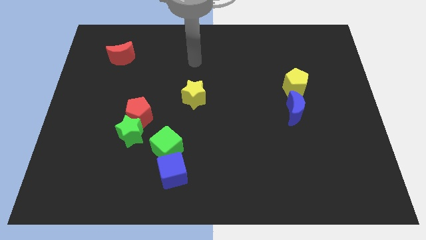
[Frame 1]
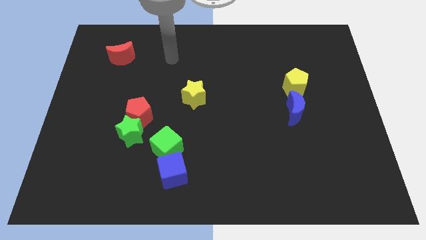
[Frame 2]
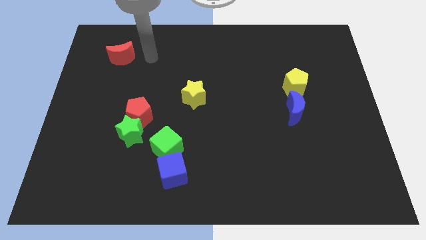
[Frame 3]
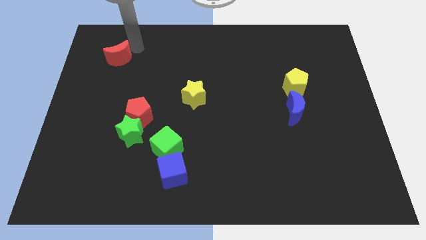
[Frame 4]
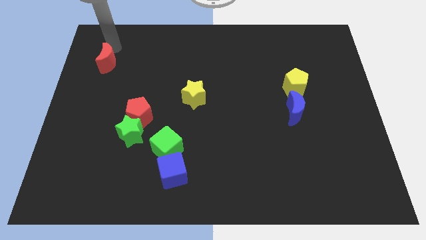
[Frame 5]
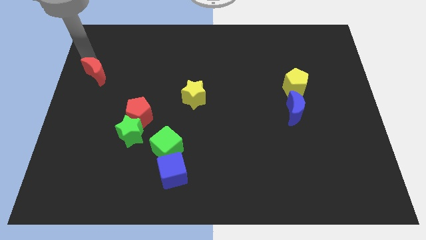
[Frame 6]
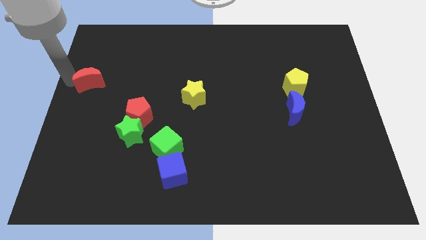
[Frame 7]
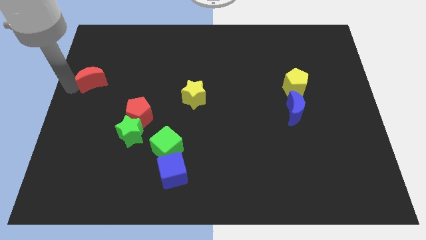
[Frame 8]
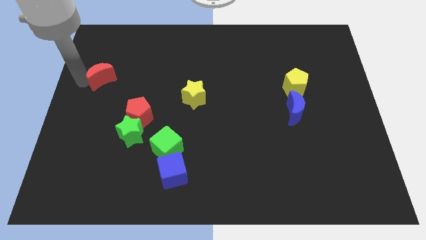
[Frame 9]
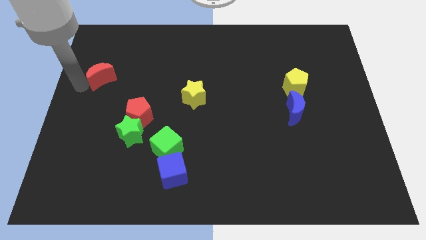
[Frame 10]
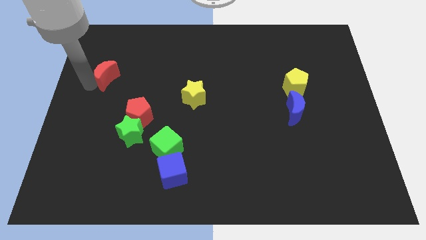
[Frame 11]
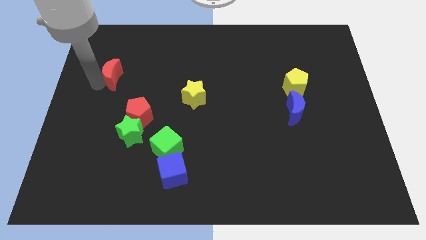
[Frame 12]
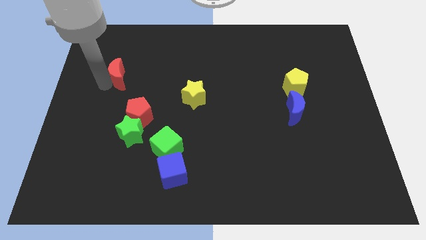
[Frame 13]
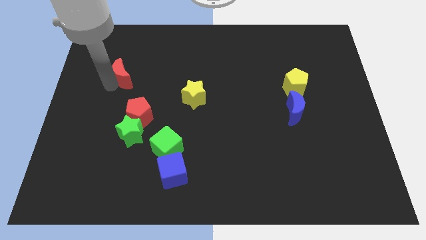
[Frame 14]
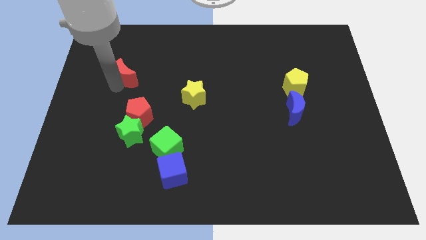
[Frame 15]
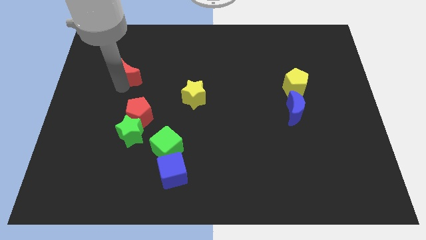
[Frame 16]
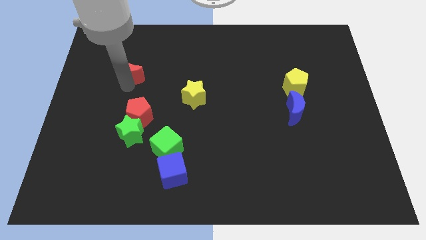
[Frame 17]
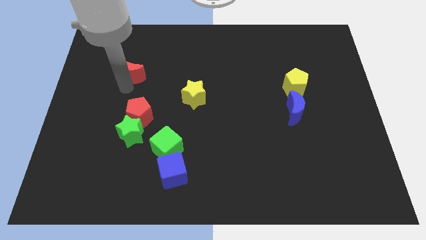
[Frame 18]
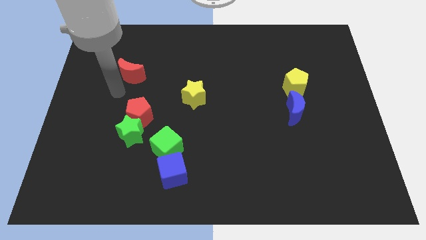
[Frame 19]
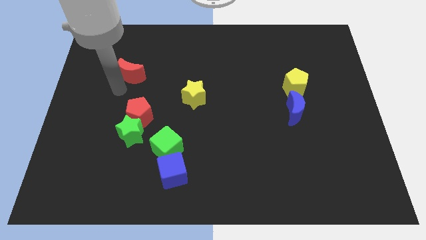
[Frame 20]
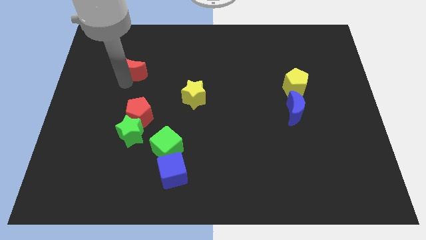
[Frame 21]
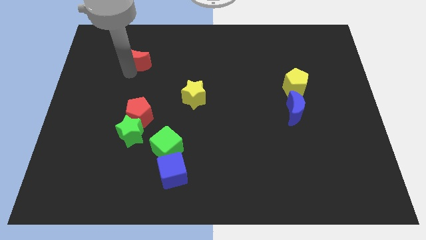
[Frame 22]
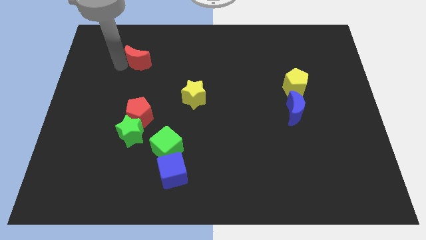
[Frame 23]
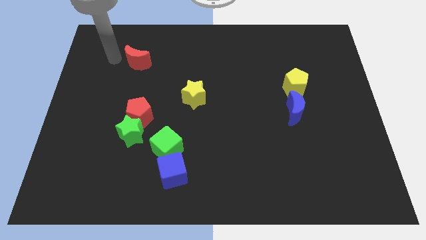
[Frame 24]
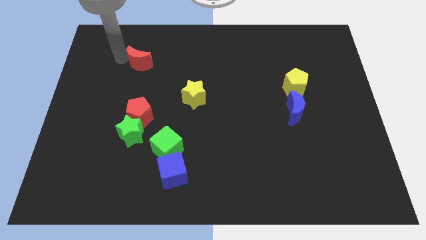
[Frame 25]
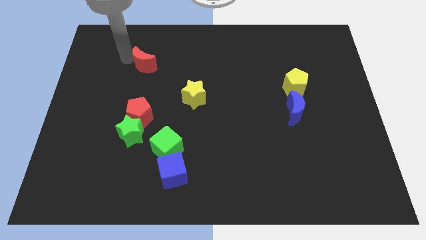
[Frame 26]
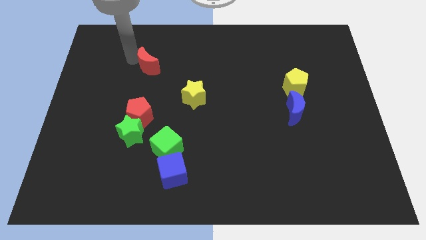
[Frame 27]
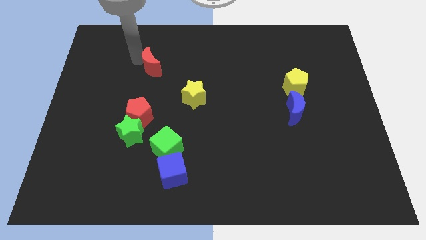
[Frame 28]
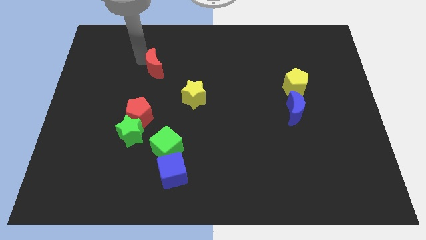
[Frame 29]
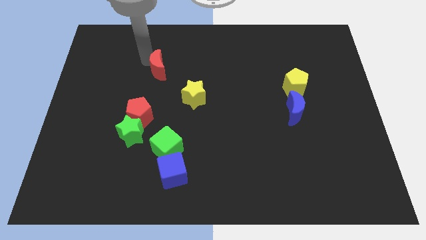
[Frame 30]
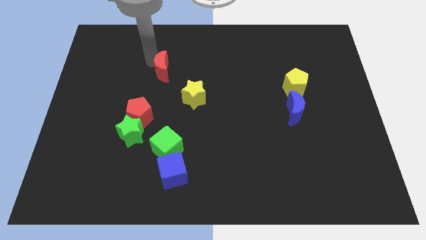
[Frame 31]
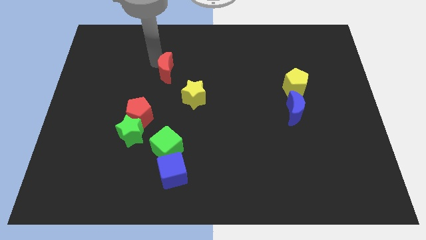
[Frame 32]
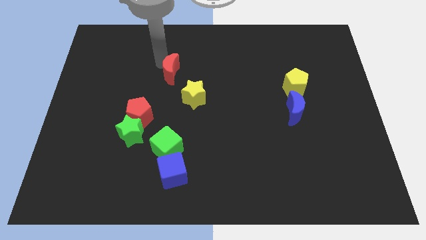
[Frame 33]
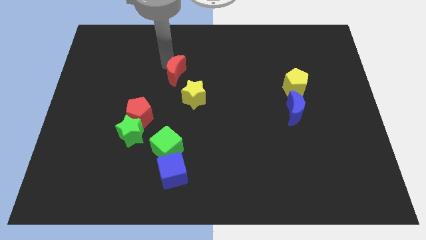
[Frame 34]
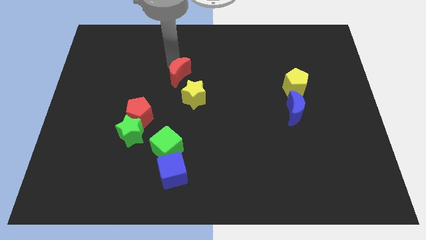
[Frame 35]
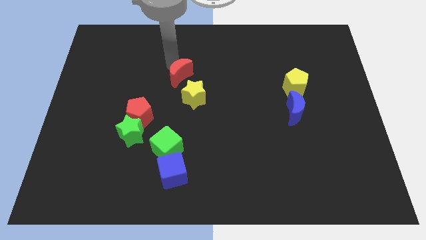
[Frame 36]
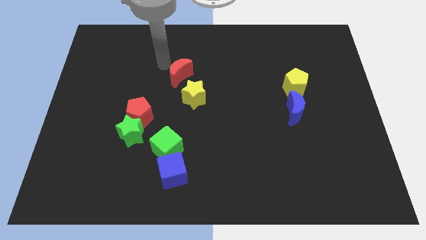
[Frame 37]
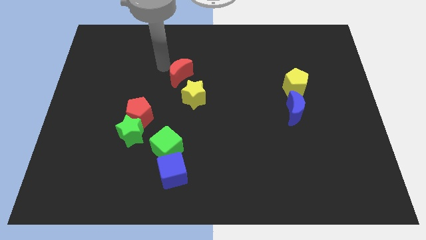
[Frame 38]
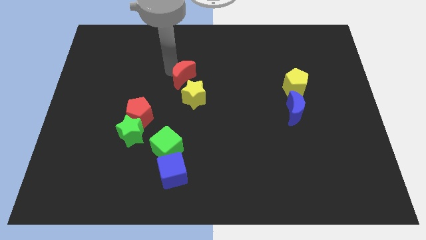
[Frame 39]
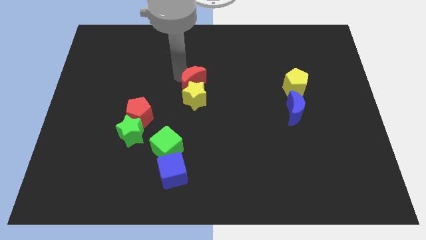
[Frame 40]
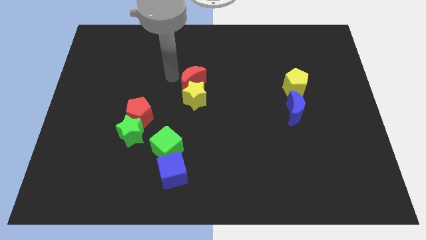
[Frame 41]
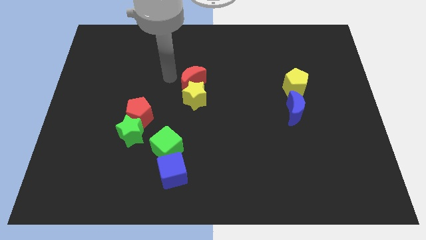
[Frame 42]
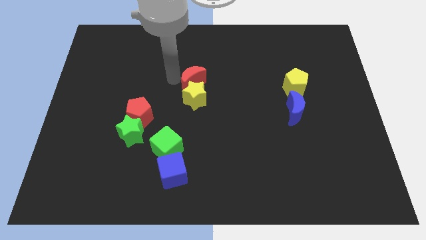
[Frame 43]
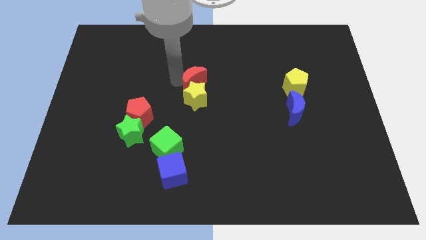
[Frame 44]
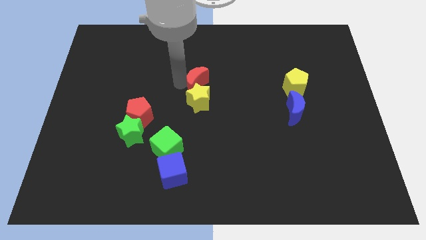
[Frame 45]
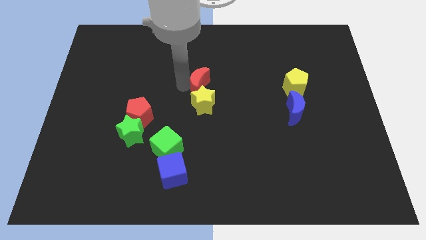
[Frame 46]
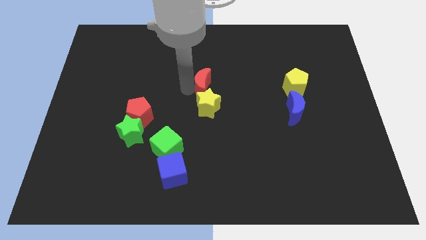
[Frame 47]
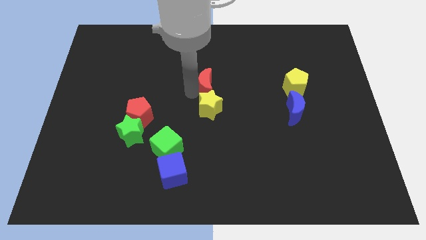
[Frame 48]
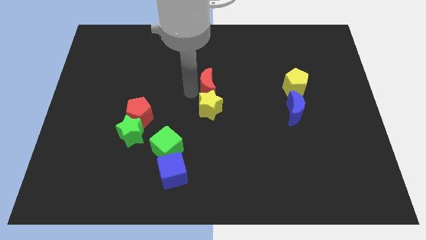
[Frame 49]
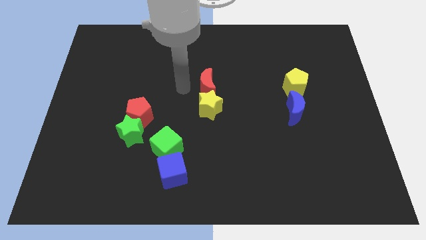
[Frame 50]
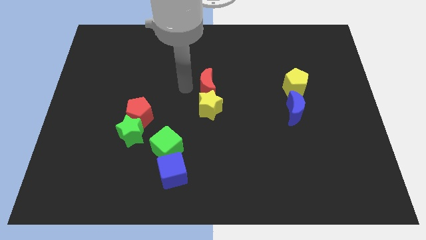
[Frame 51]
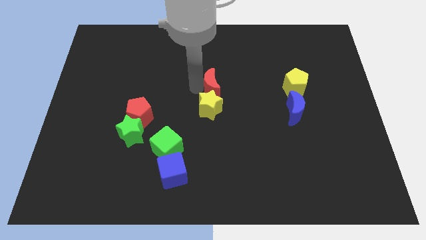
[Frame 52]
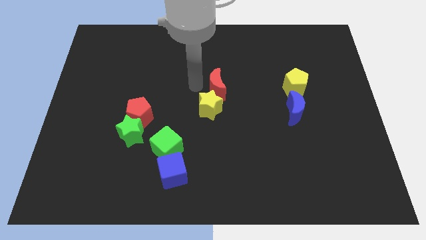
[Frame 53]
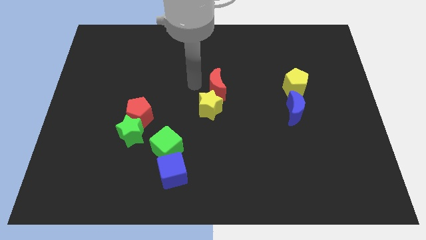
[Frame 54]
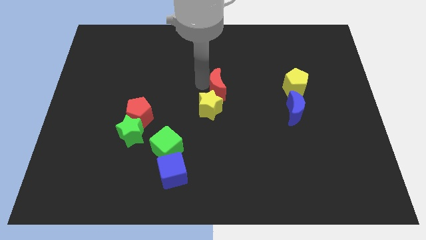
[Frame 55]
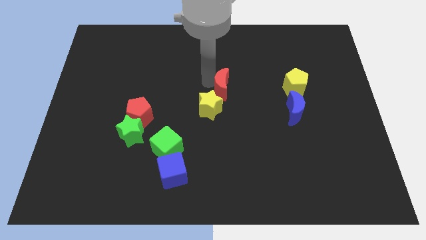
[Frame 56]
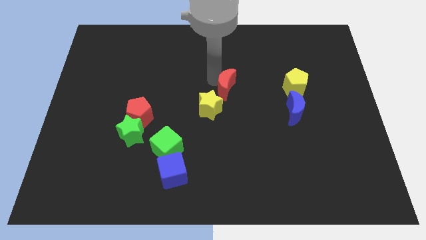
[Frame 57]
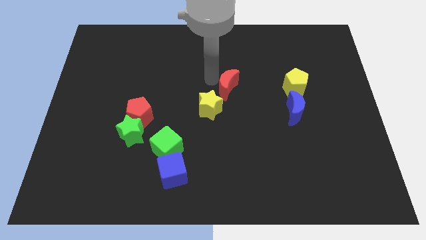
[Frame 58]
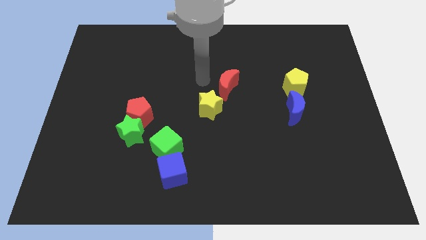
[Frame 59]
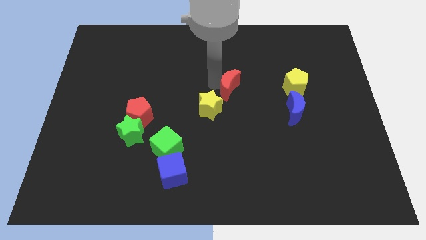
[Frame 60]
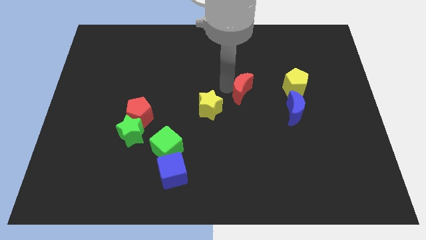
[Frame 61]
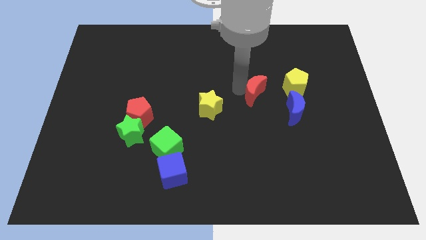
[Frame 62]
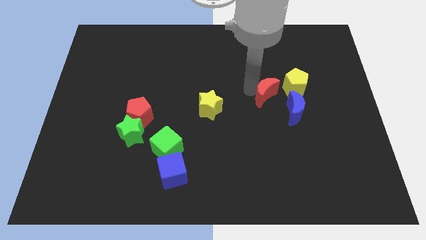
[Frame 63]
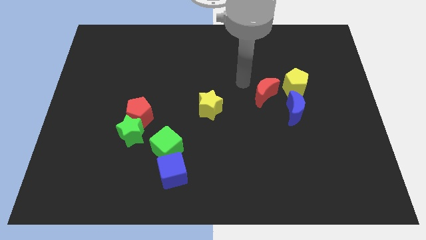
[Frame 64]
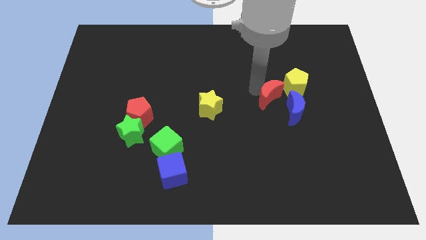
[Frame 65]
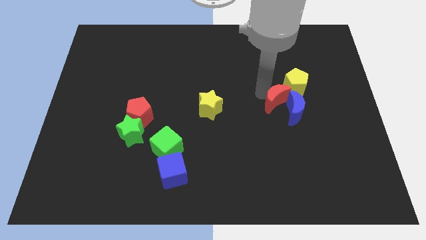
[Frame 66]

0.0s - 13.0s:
move the red moon to the blue moon

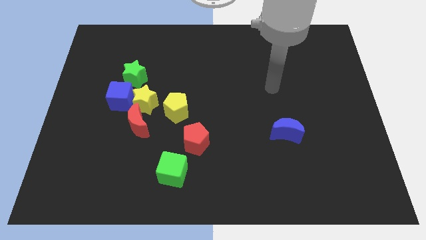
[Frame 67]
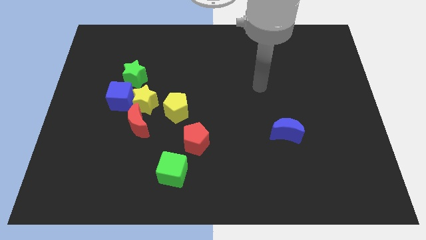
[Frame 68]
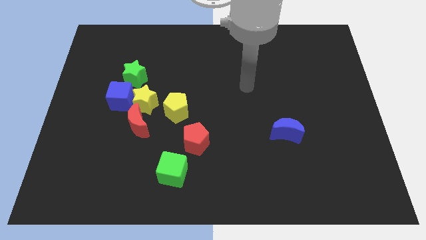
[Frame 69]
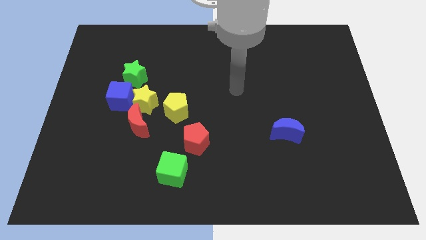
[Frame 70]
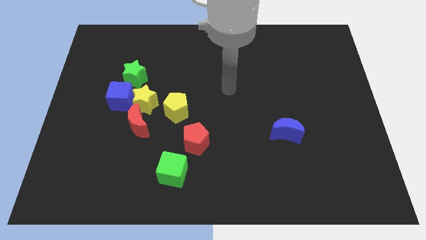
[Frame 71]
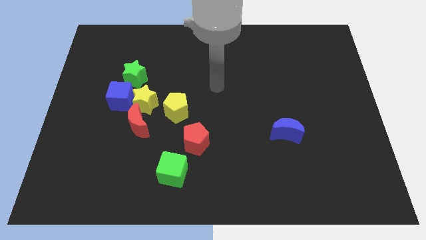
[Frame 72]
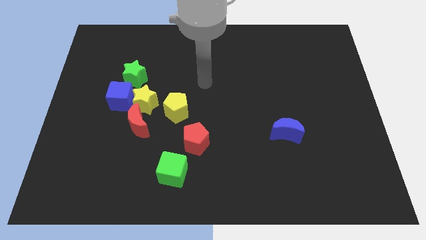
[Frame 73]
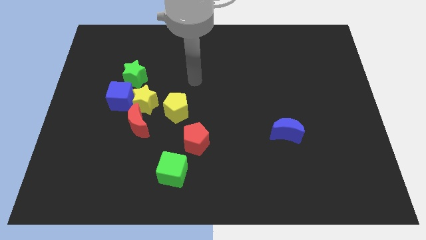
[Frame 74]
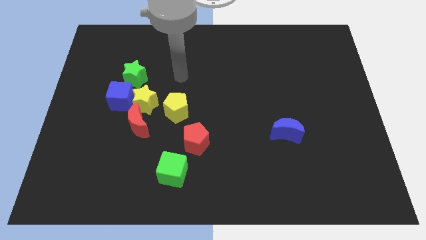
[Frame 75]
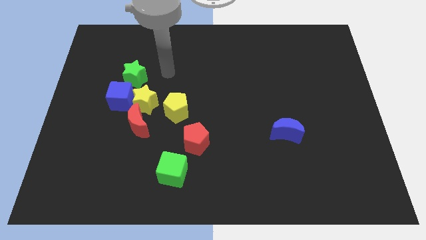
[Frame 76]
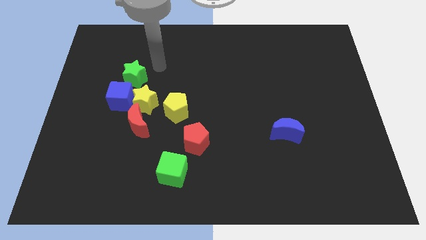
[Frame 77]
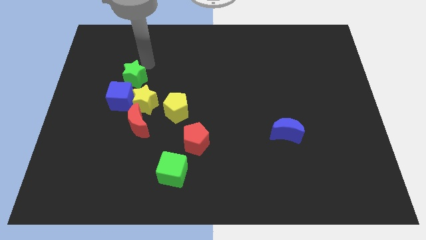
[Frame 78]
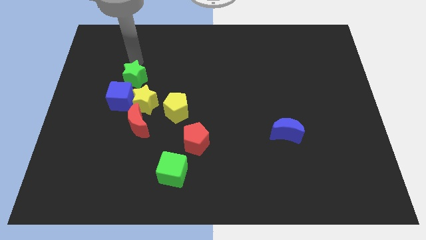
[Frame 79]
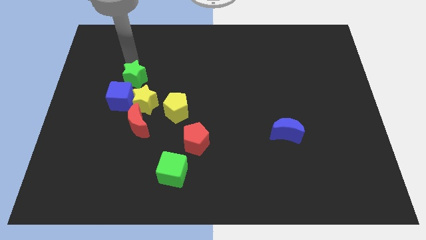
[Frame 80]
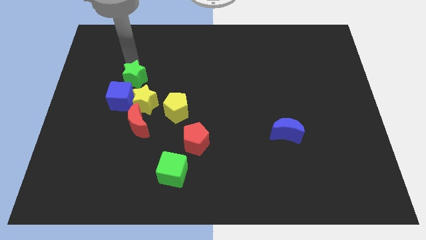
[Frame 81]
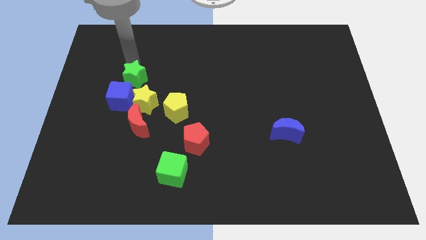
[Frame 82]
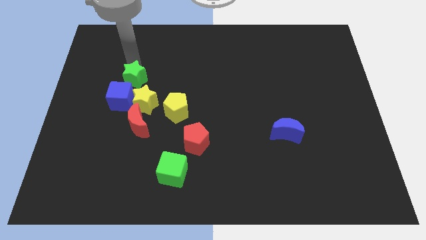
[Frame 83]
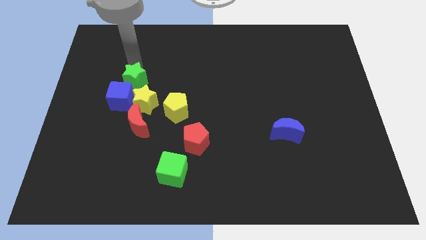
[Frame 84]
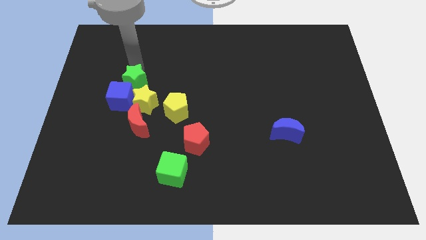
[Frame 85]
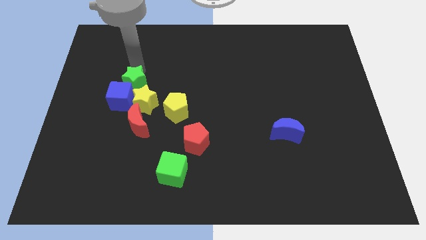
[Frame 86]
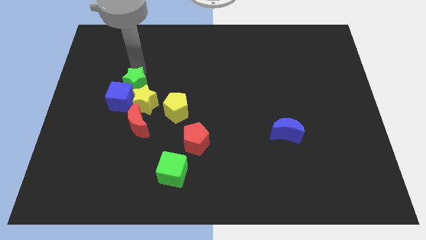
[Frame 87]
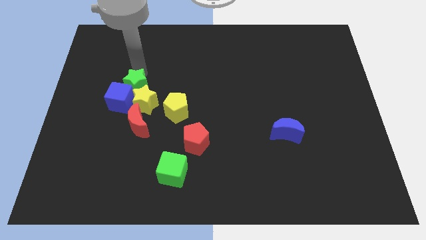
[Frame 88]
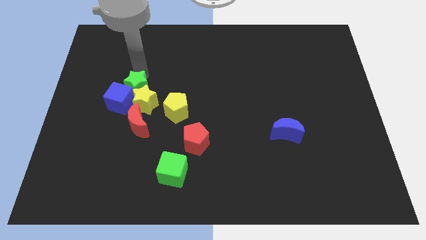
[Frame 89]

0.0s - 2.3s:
put the green star to the yellow star
